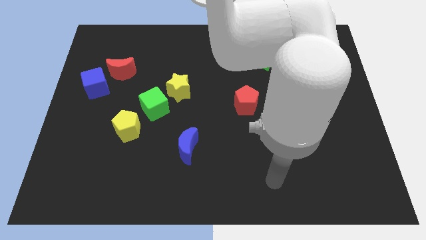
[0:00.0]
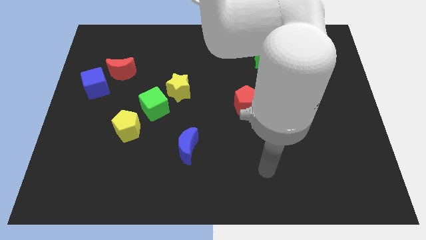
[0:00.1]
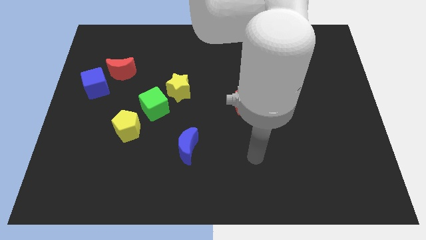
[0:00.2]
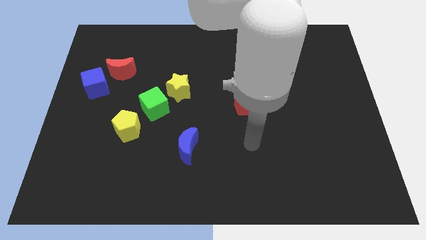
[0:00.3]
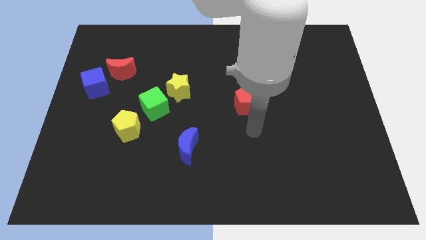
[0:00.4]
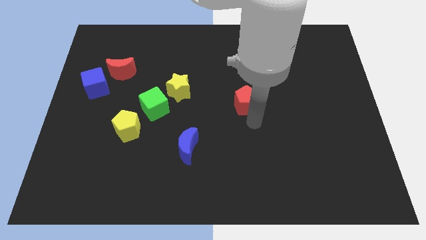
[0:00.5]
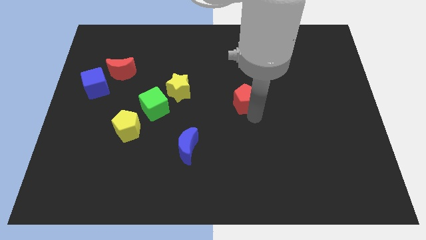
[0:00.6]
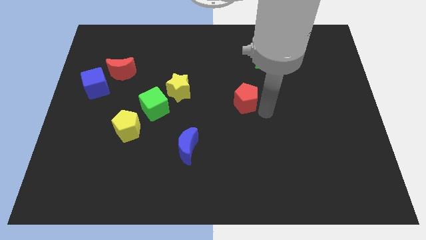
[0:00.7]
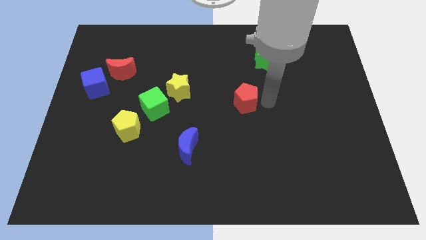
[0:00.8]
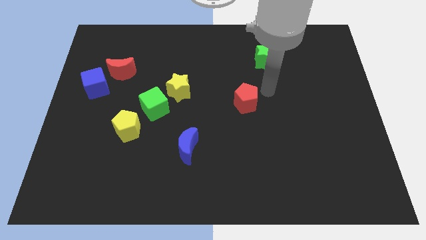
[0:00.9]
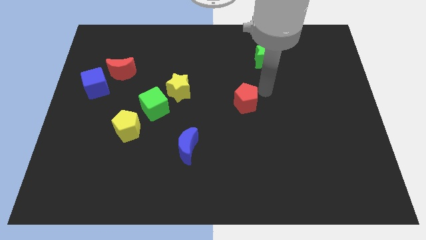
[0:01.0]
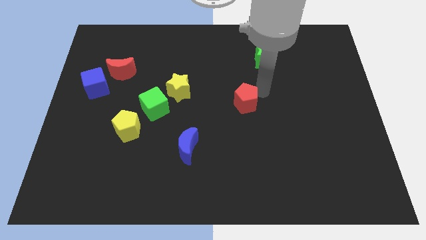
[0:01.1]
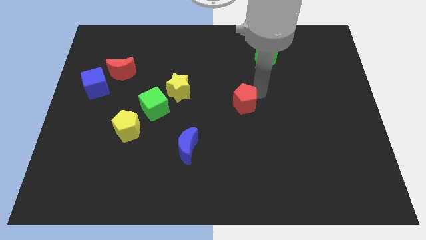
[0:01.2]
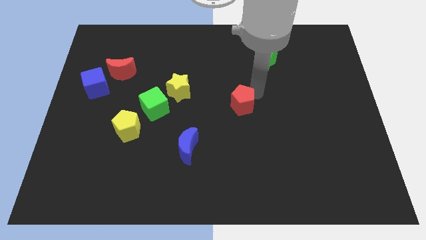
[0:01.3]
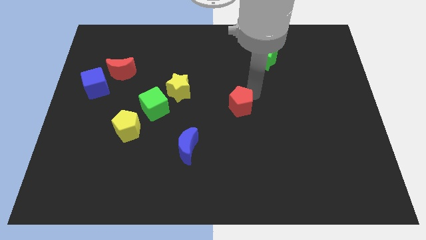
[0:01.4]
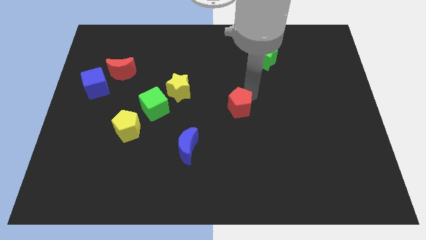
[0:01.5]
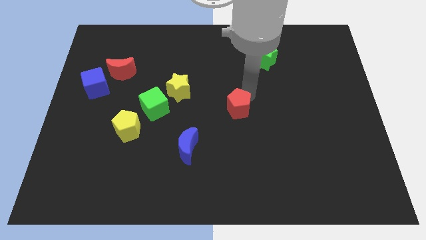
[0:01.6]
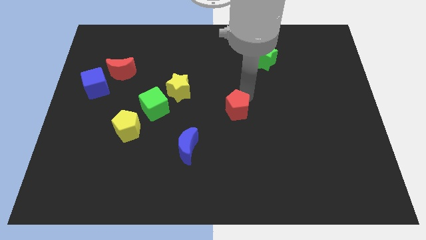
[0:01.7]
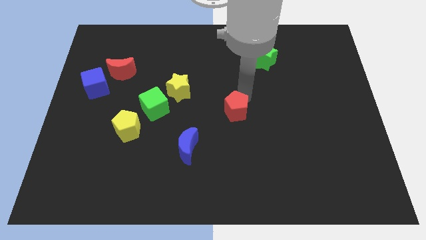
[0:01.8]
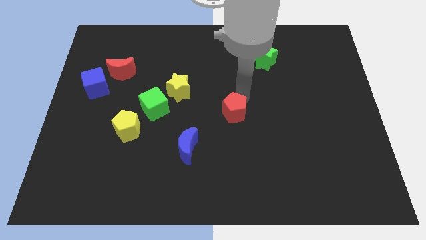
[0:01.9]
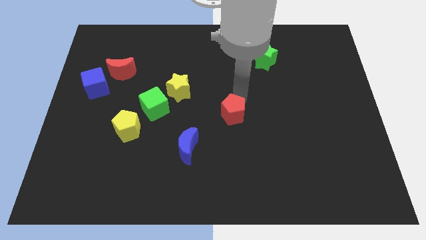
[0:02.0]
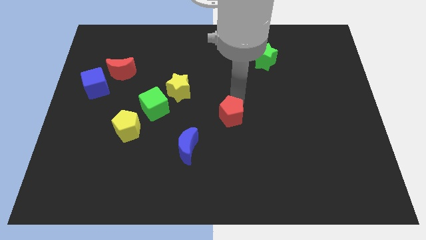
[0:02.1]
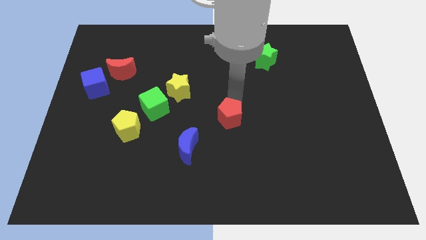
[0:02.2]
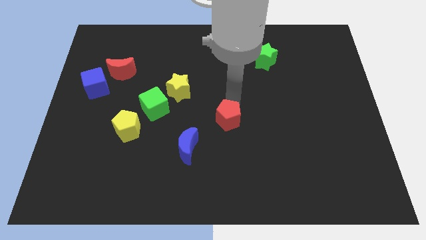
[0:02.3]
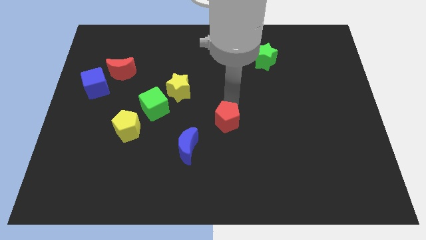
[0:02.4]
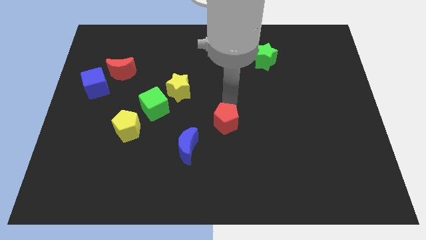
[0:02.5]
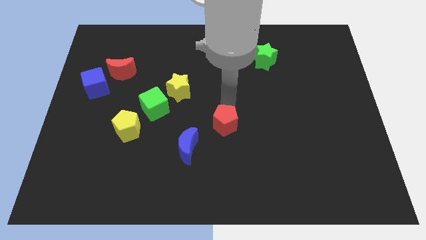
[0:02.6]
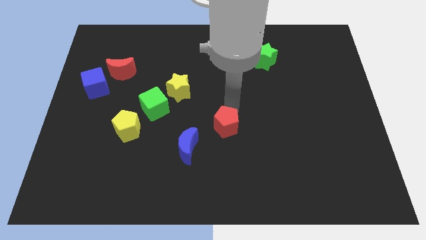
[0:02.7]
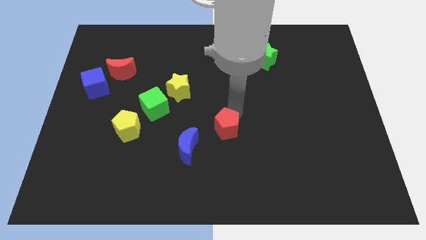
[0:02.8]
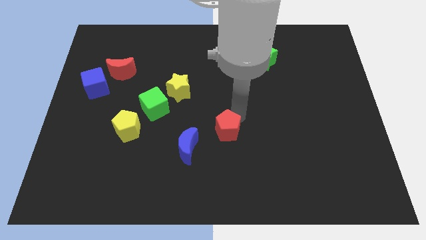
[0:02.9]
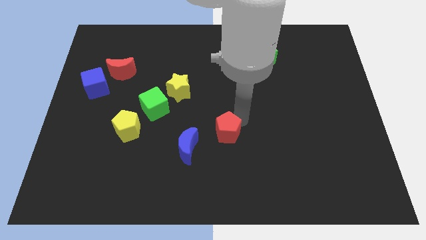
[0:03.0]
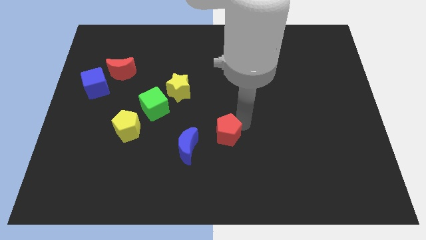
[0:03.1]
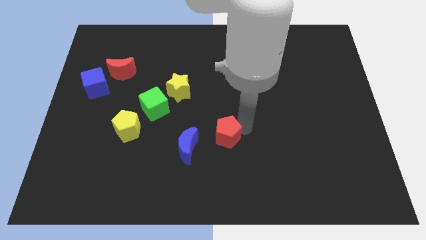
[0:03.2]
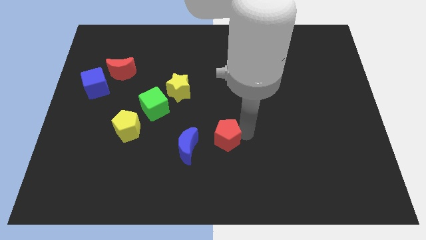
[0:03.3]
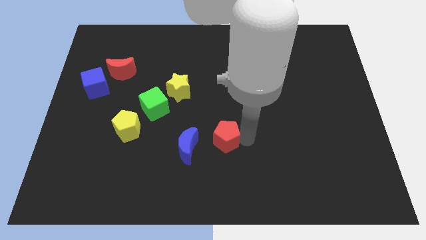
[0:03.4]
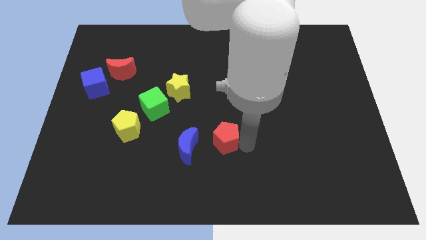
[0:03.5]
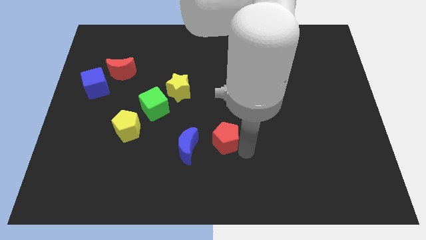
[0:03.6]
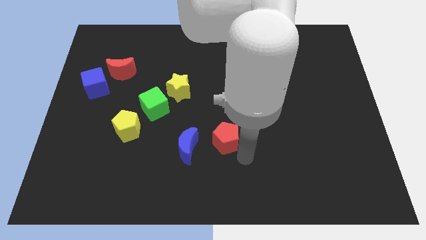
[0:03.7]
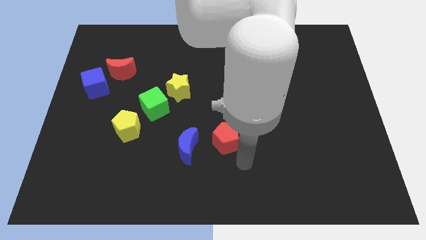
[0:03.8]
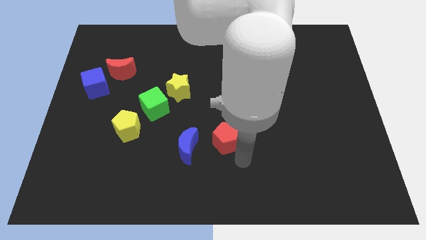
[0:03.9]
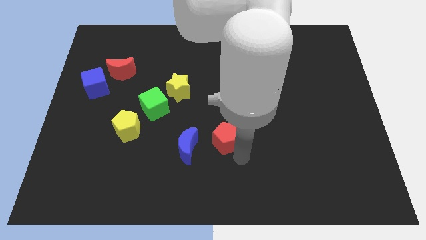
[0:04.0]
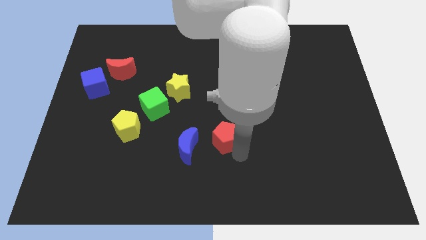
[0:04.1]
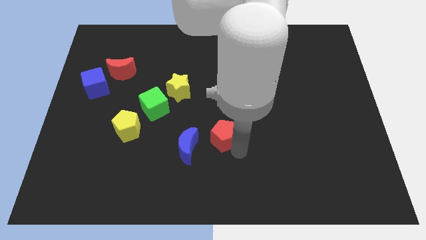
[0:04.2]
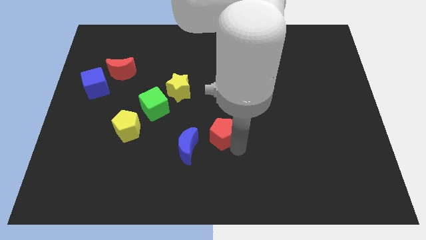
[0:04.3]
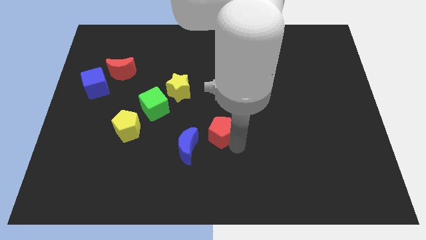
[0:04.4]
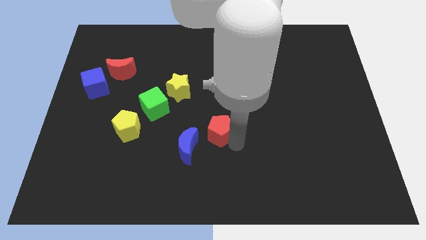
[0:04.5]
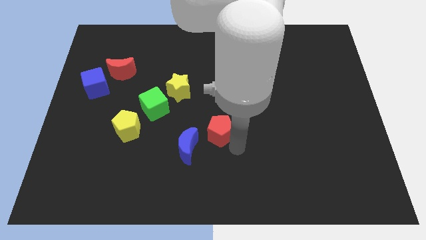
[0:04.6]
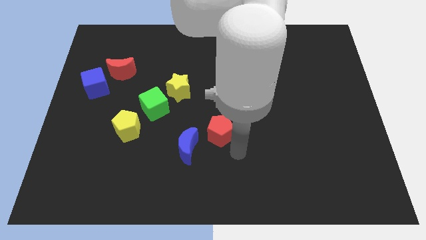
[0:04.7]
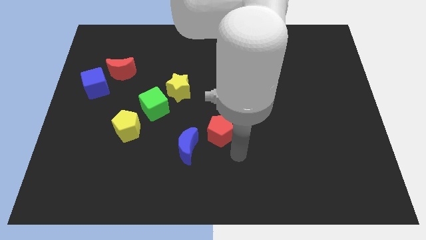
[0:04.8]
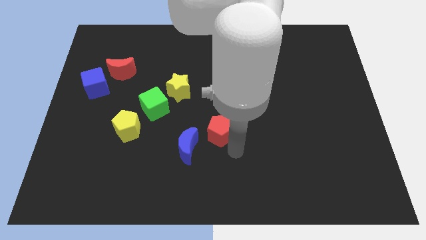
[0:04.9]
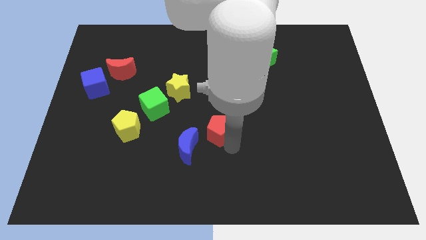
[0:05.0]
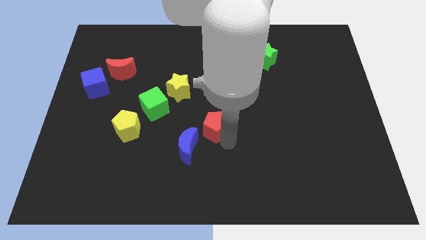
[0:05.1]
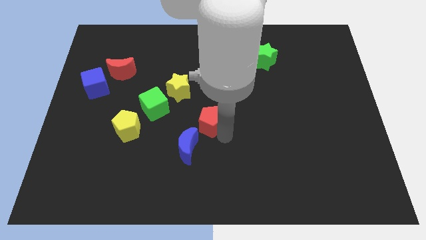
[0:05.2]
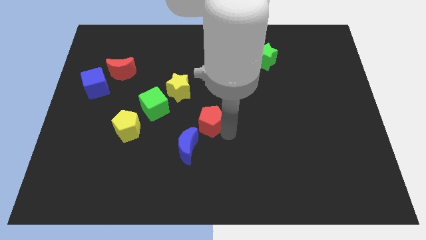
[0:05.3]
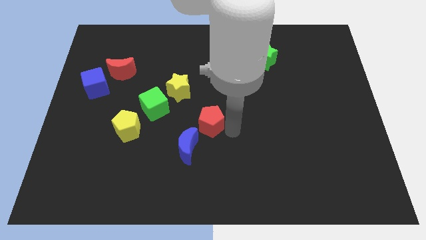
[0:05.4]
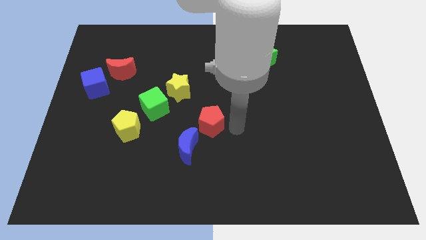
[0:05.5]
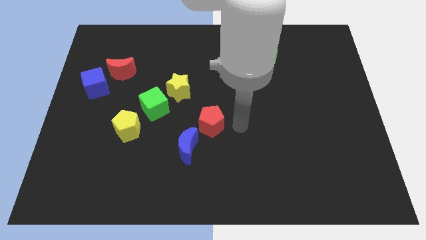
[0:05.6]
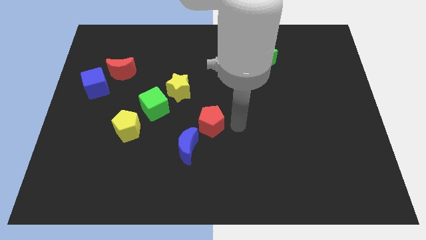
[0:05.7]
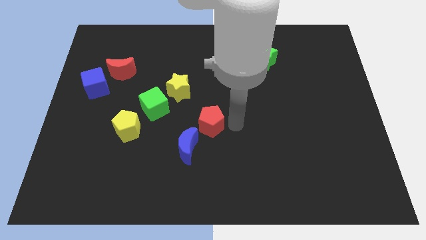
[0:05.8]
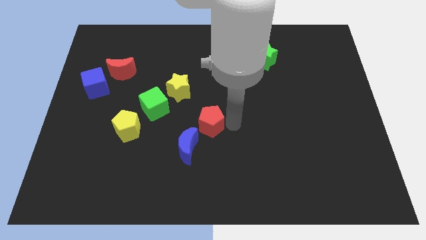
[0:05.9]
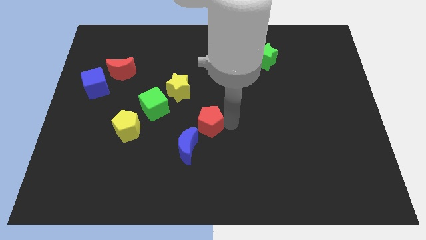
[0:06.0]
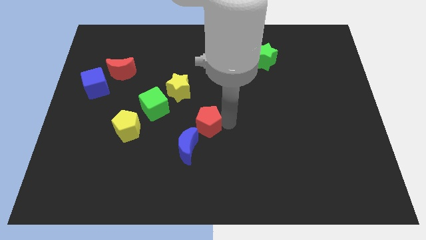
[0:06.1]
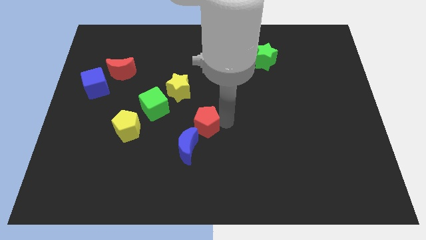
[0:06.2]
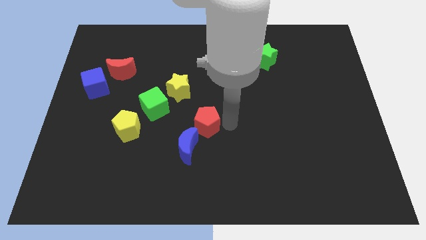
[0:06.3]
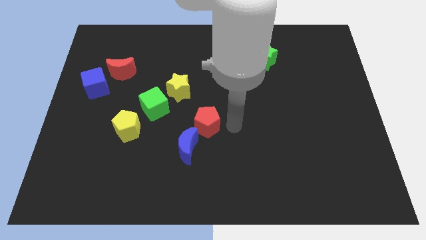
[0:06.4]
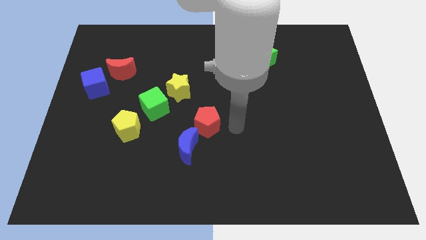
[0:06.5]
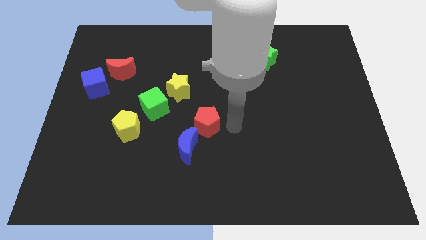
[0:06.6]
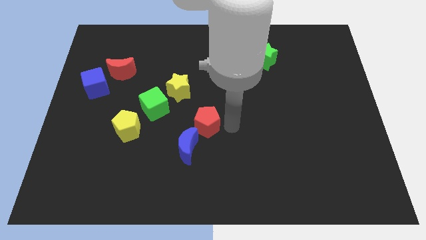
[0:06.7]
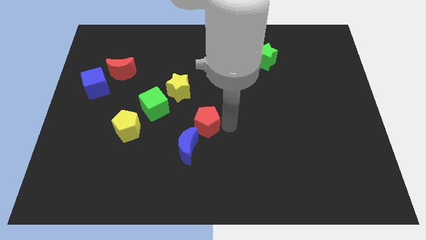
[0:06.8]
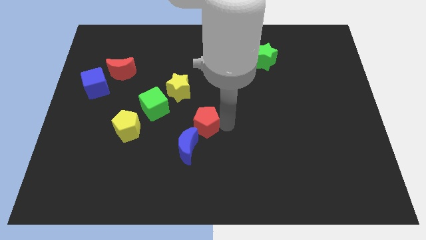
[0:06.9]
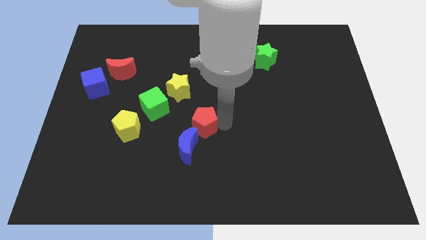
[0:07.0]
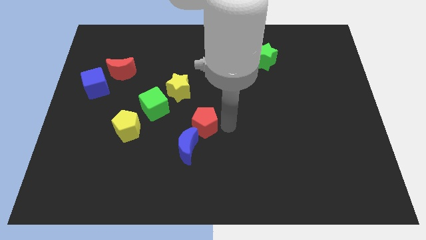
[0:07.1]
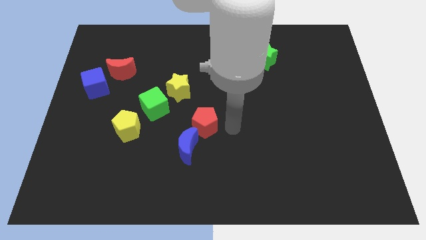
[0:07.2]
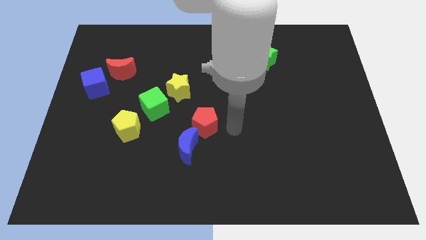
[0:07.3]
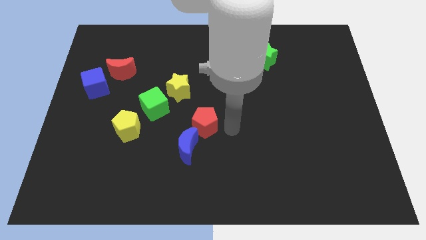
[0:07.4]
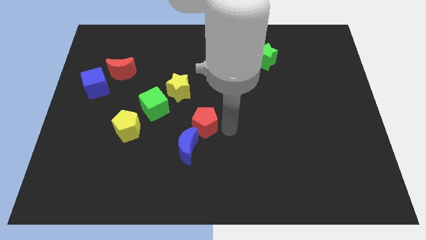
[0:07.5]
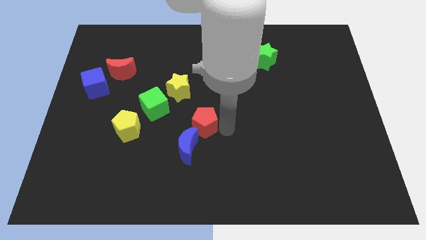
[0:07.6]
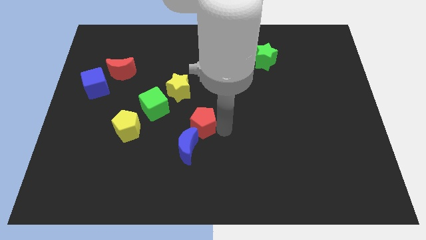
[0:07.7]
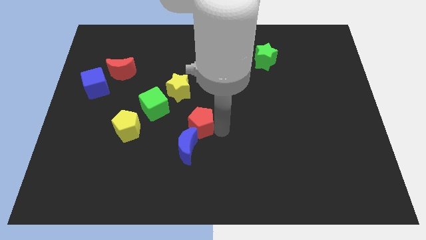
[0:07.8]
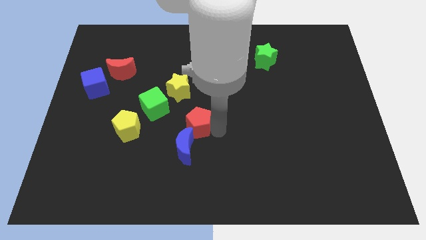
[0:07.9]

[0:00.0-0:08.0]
put the red pentagon to the bottom right side of the green cube
